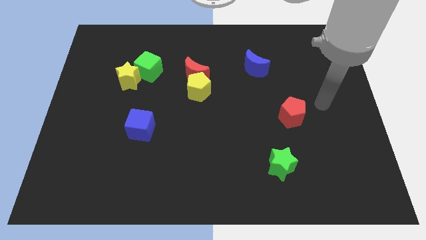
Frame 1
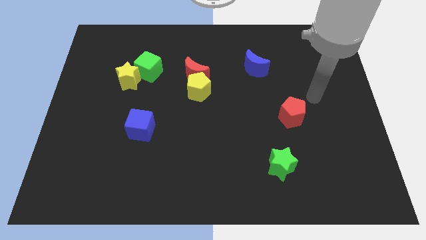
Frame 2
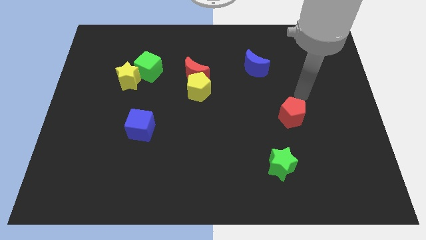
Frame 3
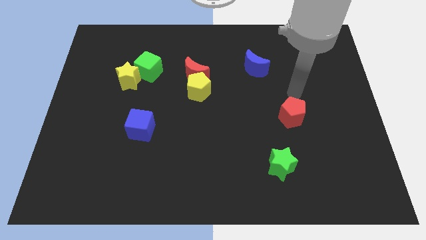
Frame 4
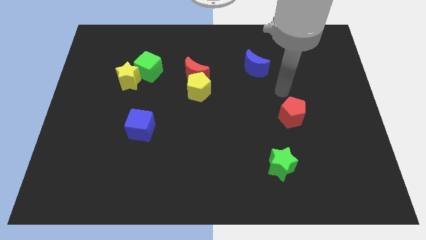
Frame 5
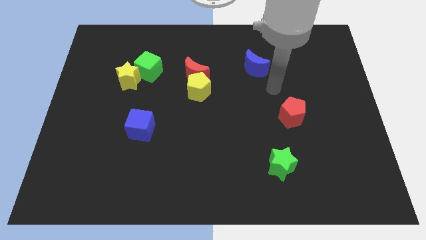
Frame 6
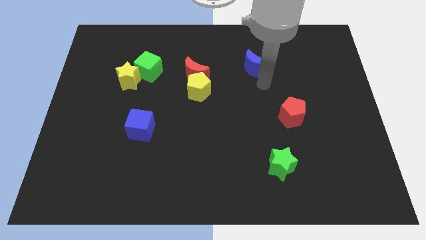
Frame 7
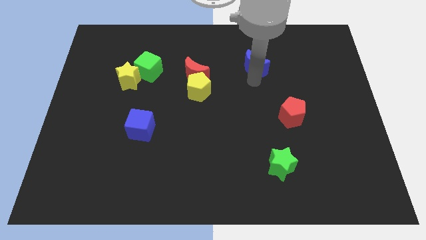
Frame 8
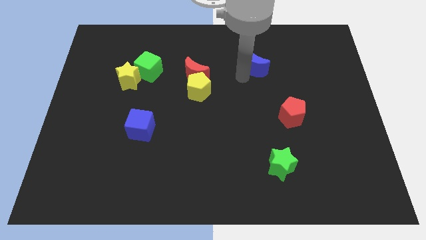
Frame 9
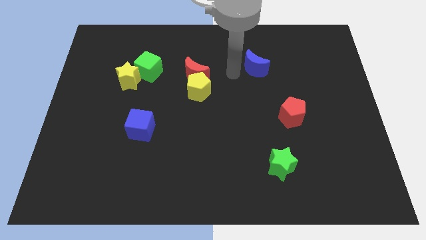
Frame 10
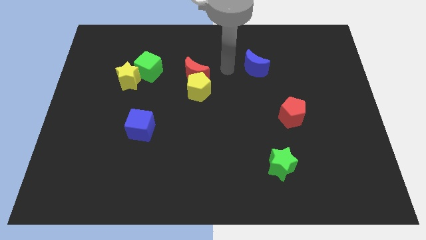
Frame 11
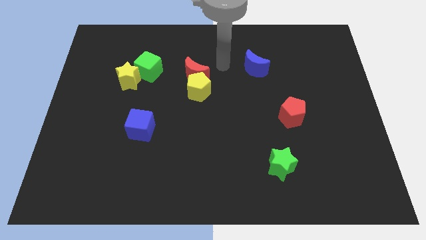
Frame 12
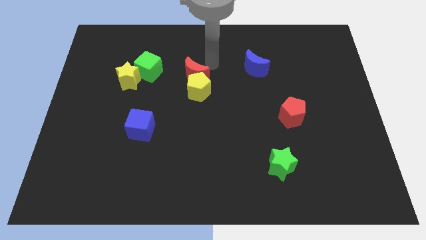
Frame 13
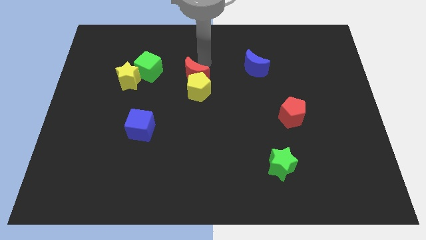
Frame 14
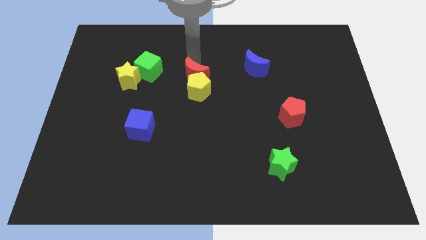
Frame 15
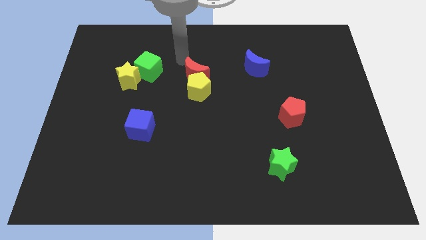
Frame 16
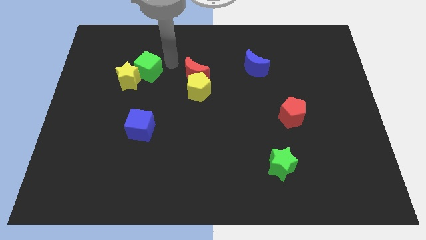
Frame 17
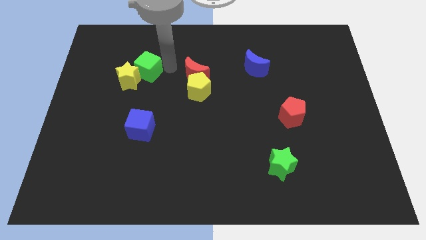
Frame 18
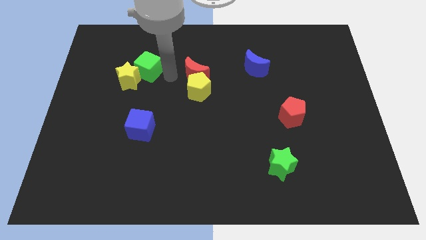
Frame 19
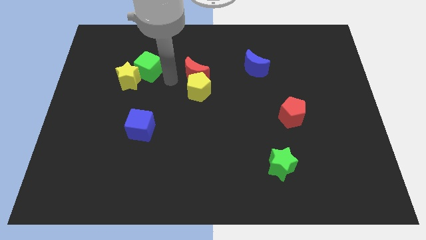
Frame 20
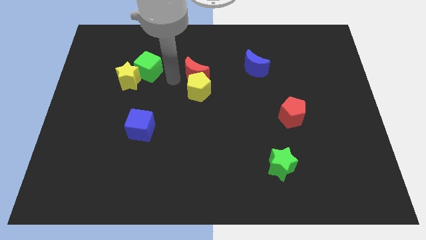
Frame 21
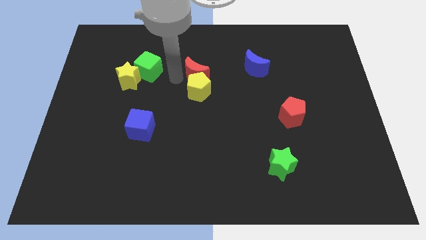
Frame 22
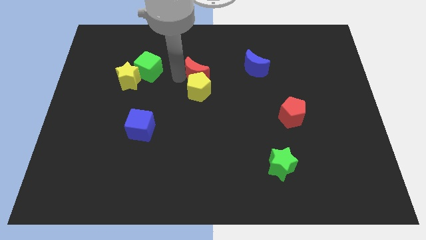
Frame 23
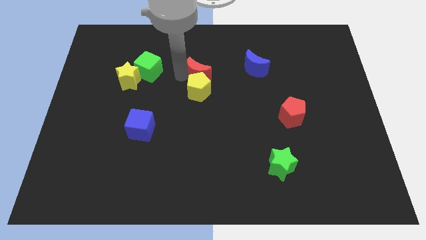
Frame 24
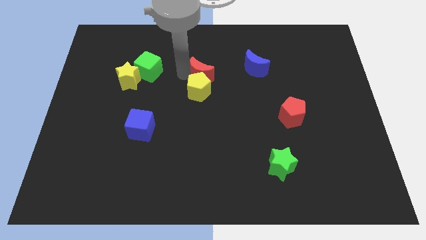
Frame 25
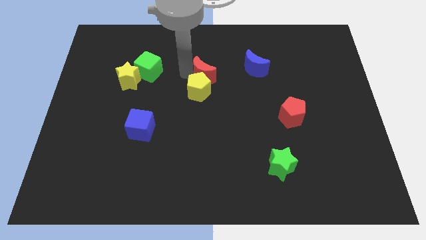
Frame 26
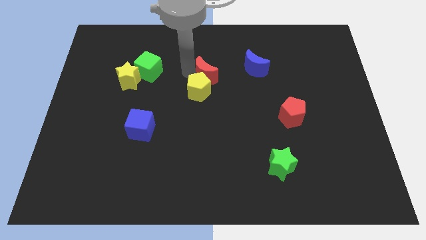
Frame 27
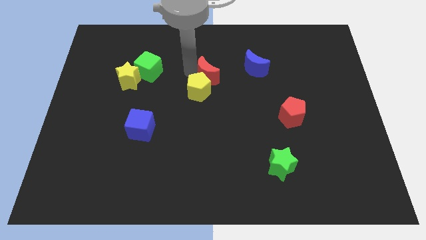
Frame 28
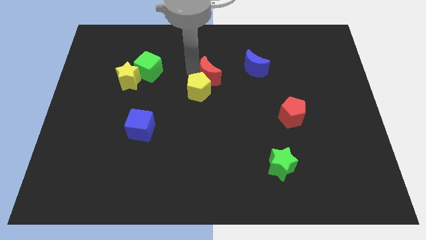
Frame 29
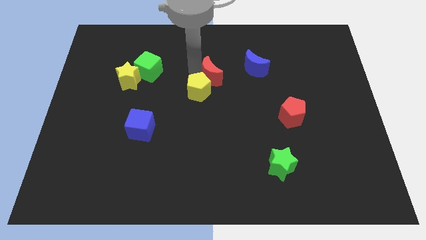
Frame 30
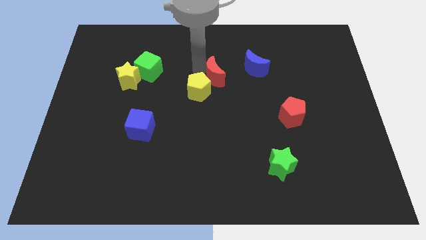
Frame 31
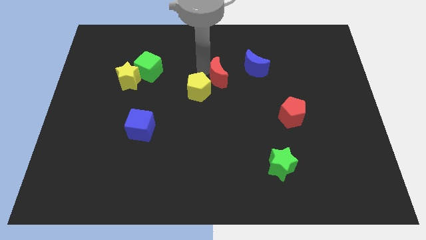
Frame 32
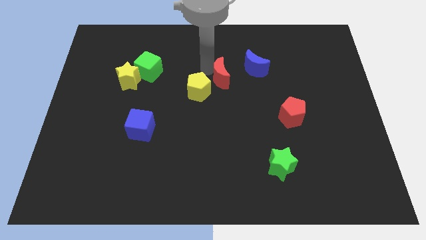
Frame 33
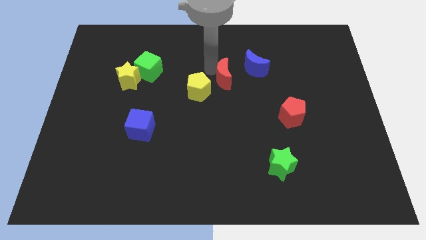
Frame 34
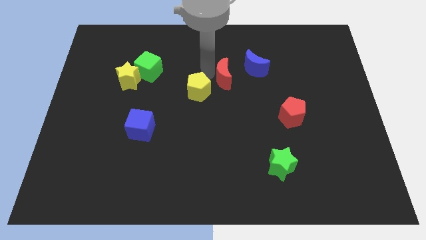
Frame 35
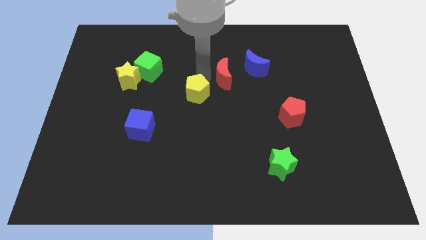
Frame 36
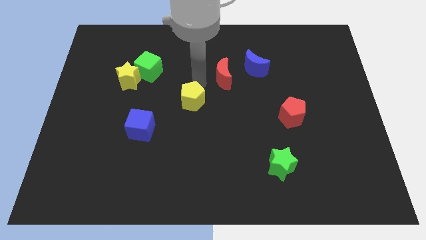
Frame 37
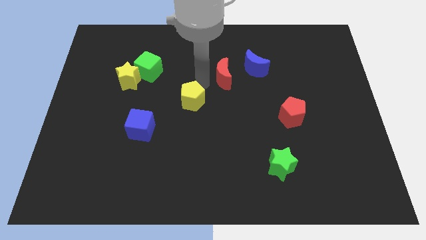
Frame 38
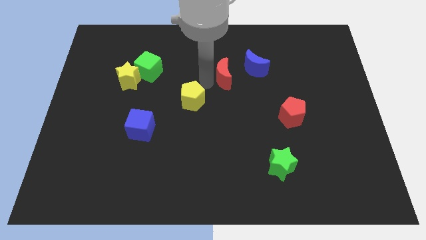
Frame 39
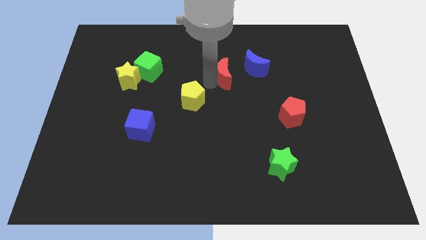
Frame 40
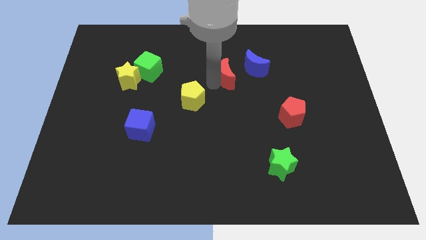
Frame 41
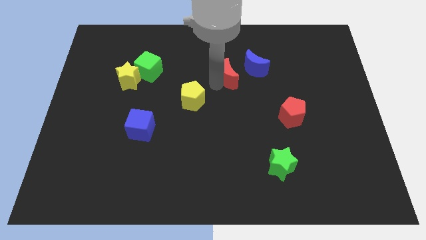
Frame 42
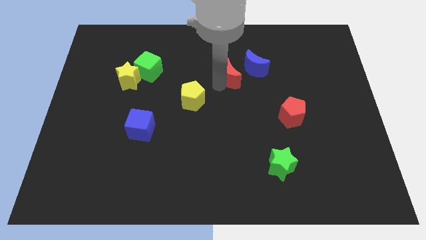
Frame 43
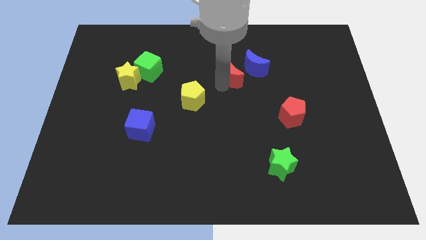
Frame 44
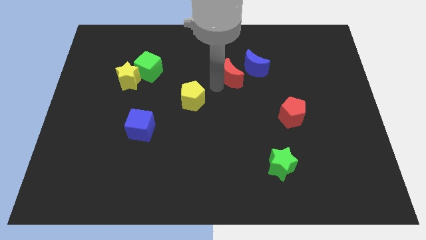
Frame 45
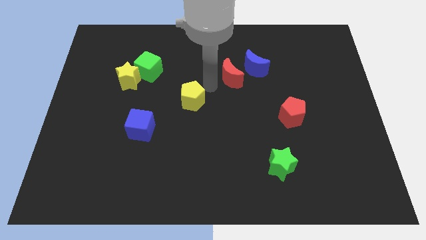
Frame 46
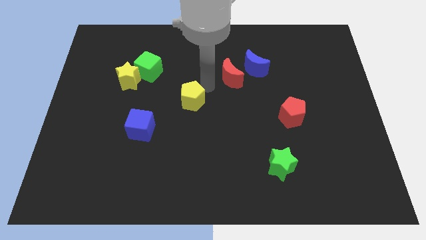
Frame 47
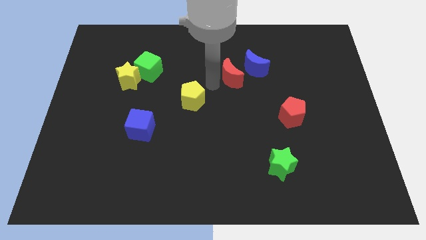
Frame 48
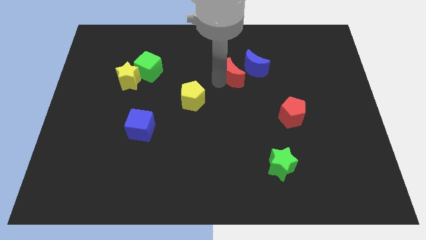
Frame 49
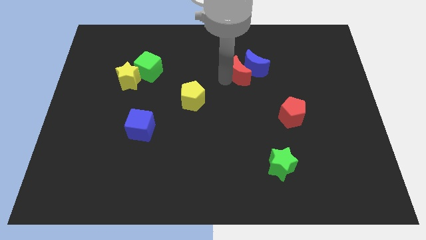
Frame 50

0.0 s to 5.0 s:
move the red moon next to the blue moon

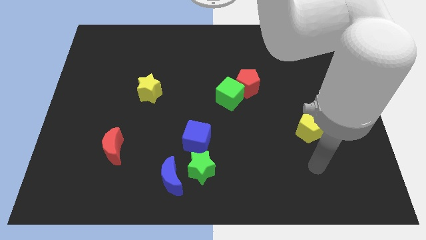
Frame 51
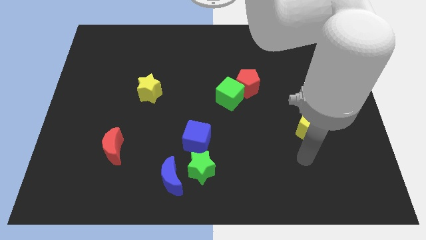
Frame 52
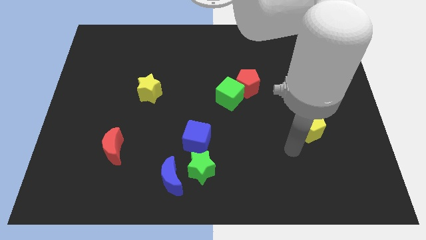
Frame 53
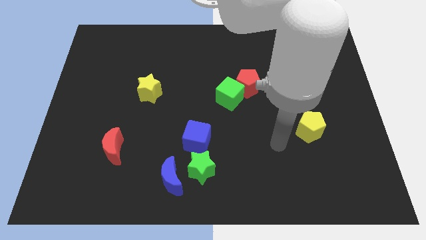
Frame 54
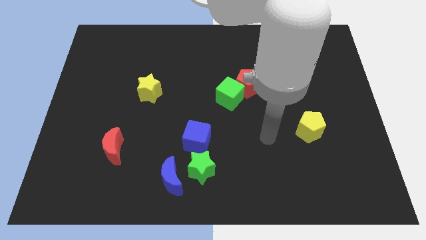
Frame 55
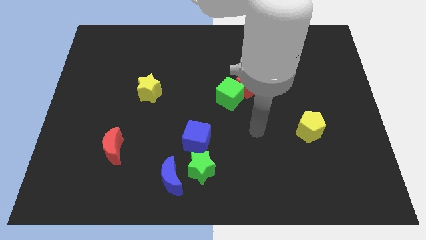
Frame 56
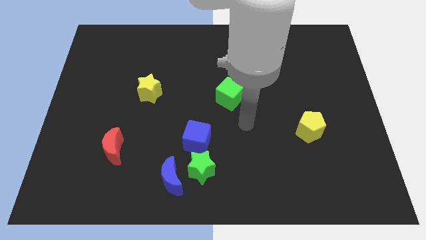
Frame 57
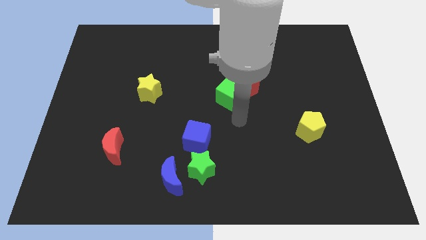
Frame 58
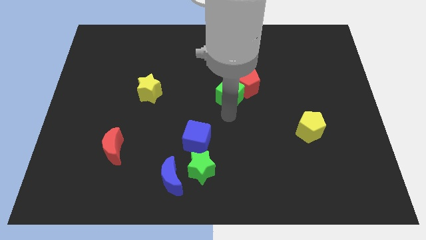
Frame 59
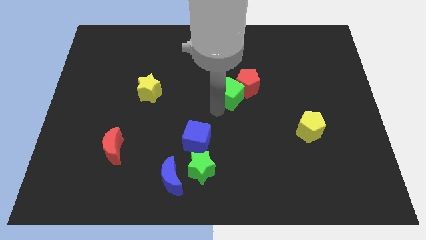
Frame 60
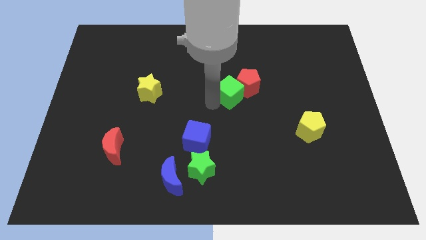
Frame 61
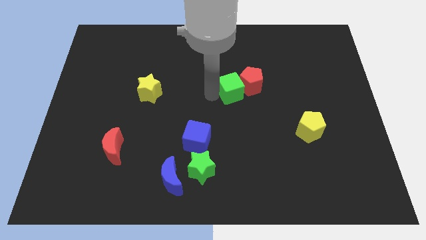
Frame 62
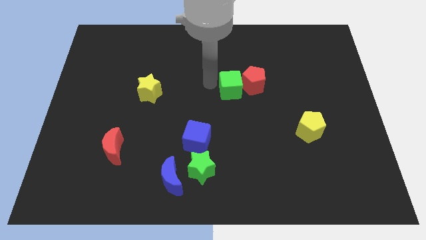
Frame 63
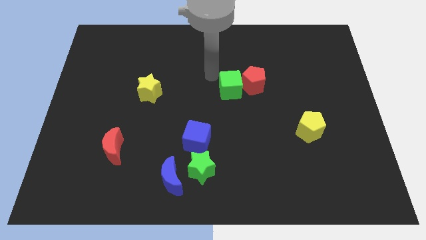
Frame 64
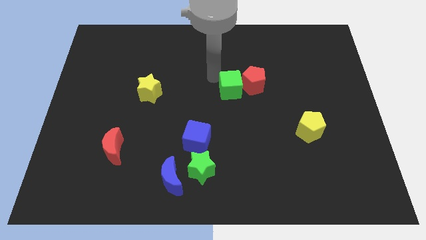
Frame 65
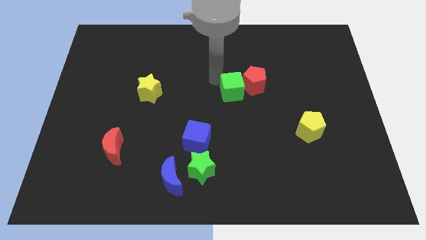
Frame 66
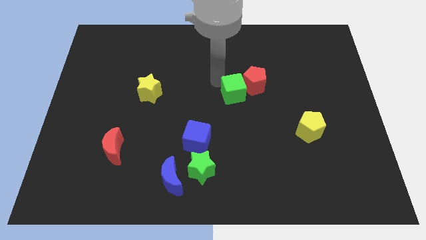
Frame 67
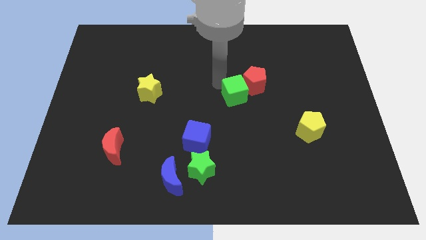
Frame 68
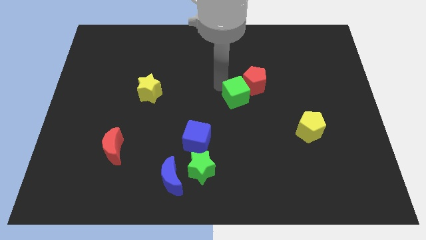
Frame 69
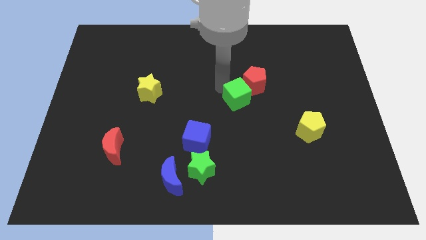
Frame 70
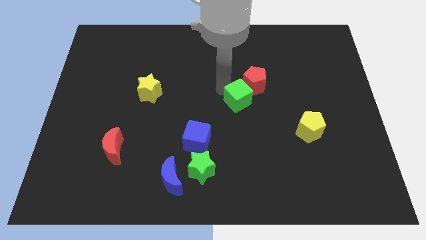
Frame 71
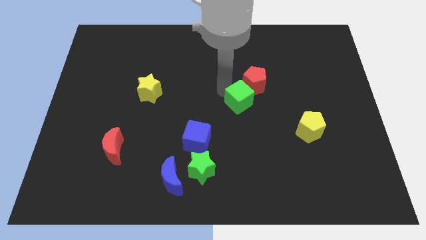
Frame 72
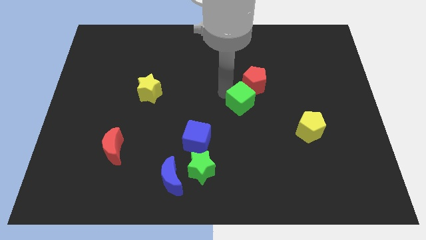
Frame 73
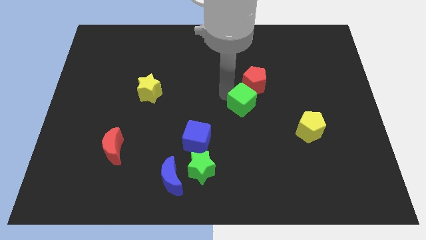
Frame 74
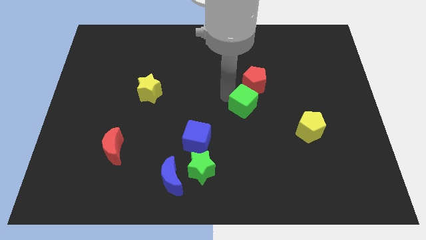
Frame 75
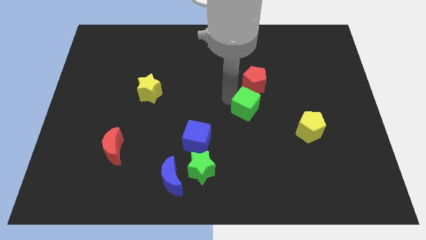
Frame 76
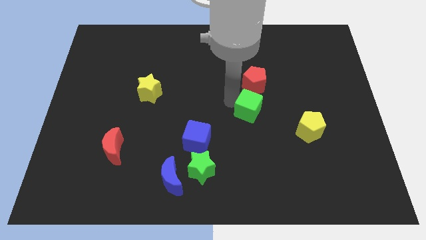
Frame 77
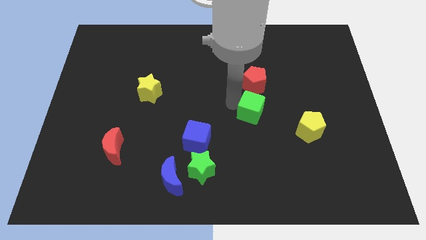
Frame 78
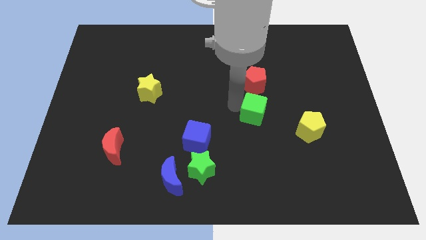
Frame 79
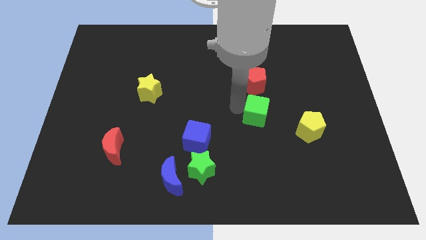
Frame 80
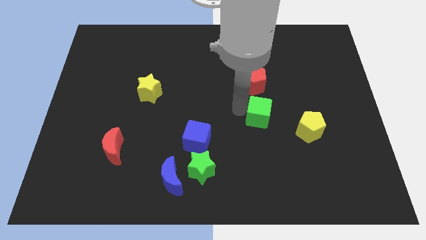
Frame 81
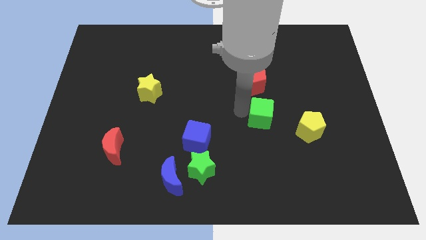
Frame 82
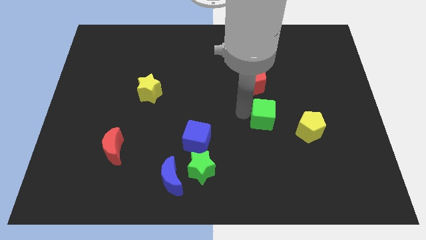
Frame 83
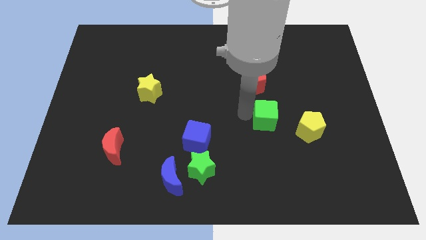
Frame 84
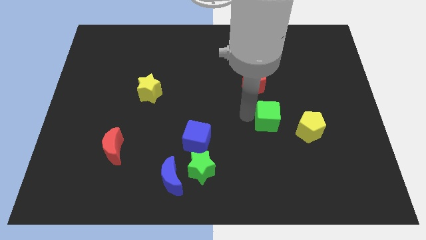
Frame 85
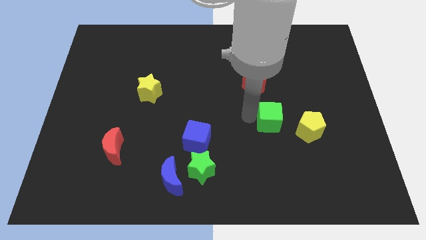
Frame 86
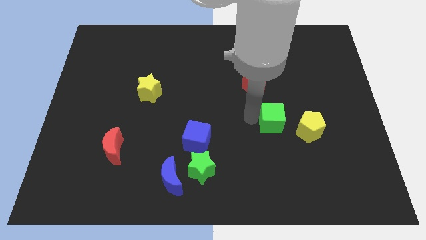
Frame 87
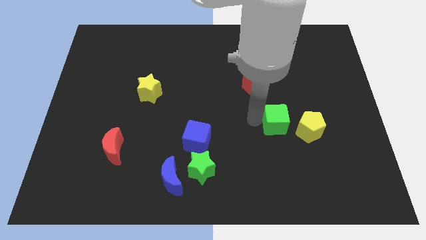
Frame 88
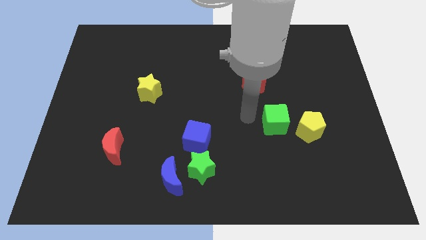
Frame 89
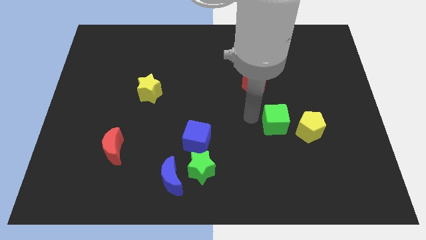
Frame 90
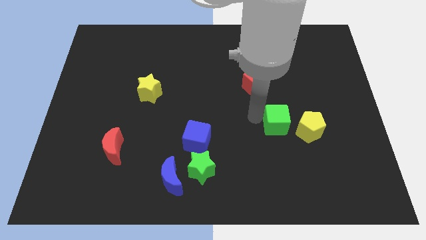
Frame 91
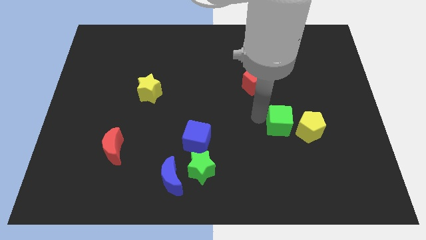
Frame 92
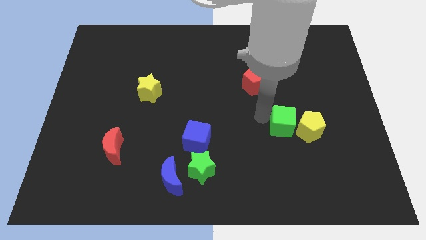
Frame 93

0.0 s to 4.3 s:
push the green cube next to the yellow pentagon
